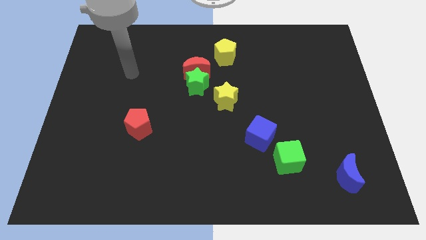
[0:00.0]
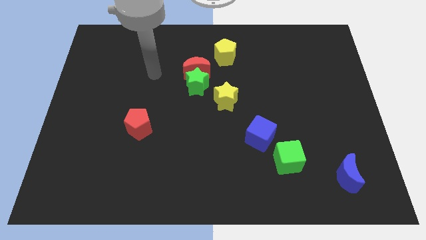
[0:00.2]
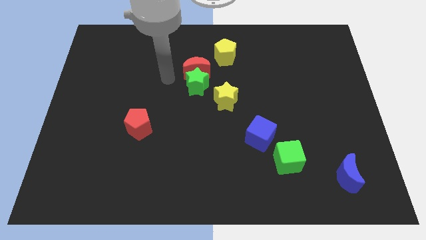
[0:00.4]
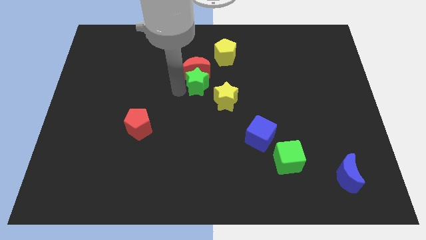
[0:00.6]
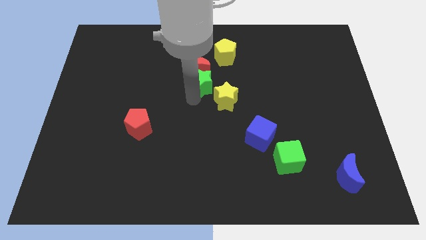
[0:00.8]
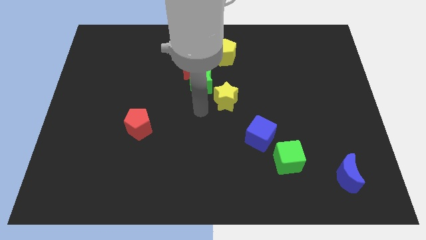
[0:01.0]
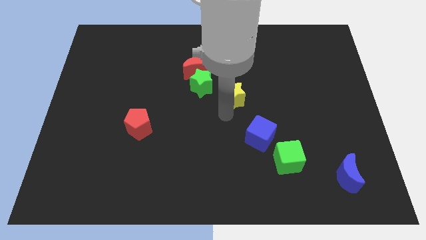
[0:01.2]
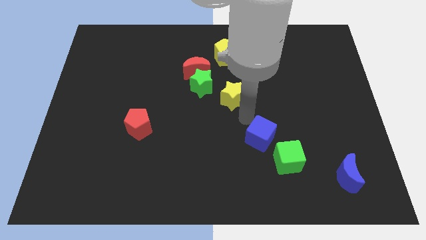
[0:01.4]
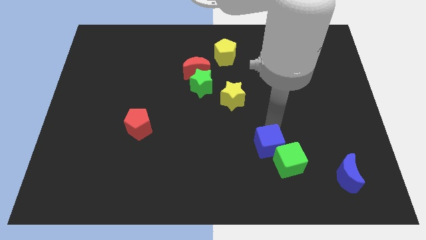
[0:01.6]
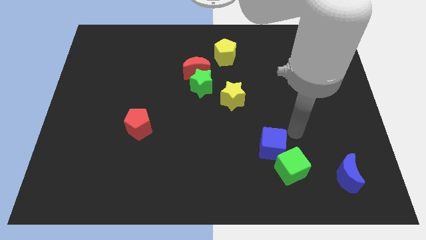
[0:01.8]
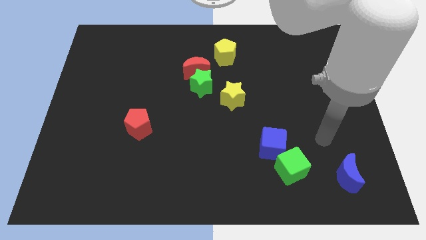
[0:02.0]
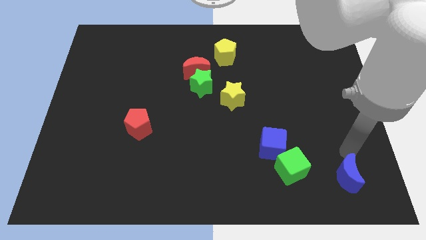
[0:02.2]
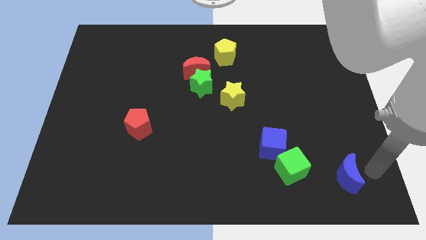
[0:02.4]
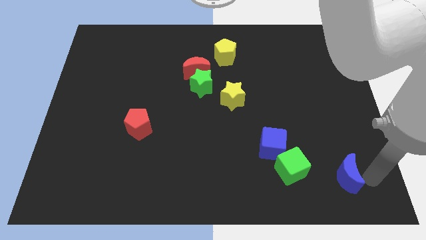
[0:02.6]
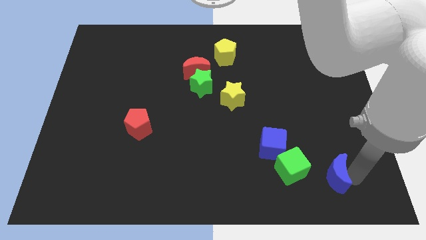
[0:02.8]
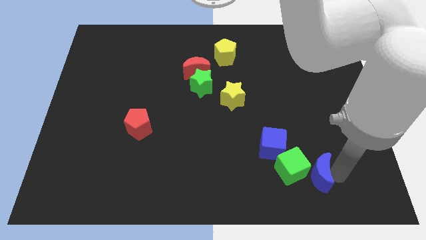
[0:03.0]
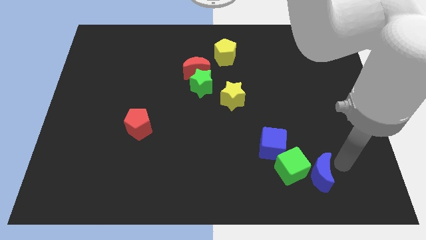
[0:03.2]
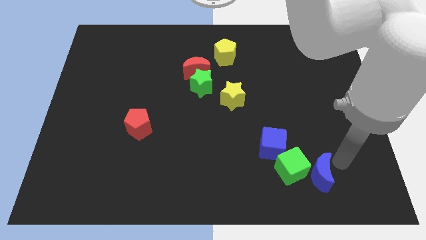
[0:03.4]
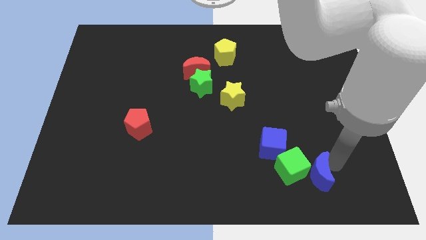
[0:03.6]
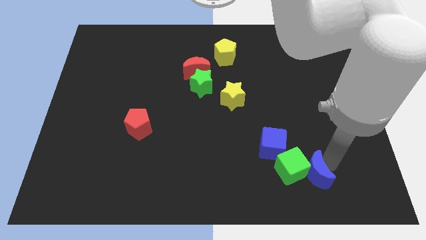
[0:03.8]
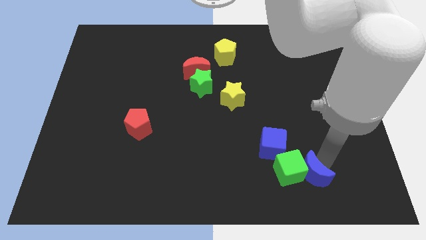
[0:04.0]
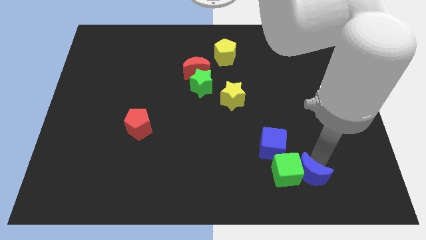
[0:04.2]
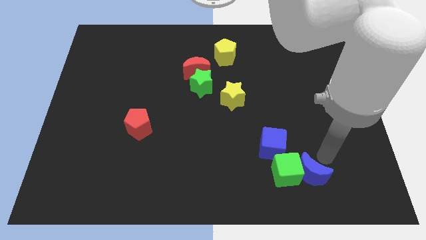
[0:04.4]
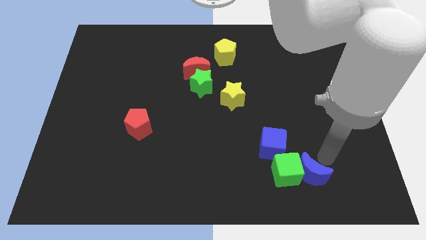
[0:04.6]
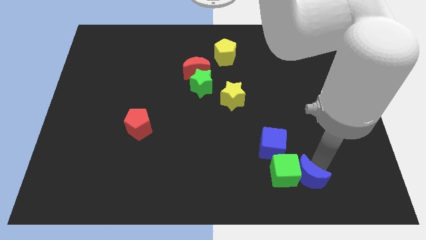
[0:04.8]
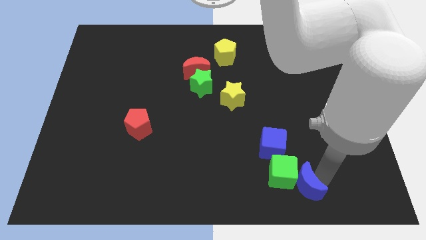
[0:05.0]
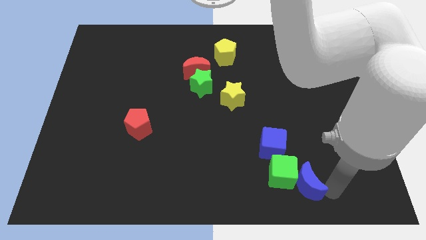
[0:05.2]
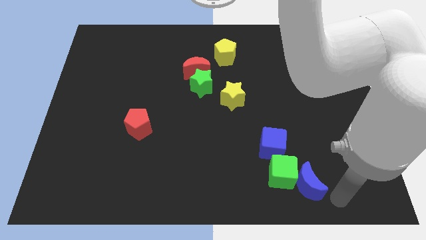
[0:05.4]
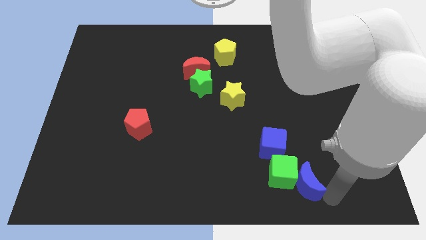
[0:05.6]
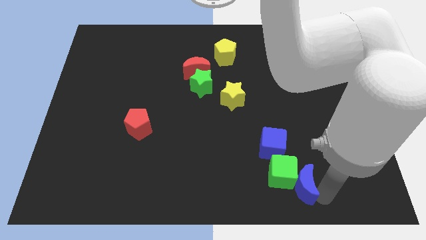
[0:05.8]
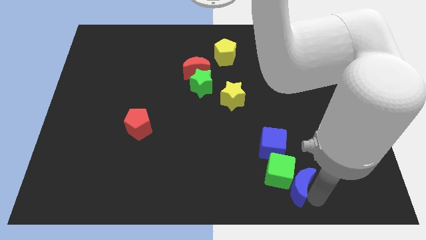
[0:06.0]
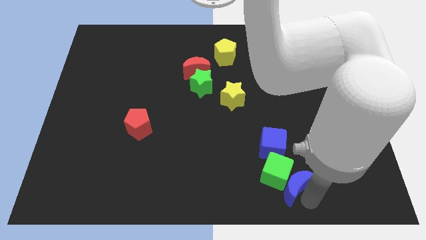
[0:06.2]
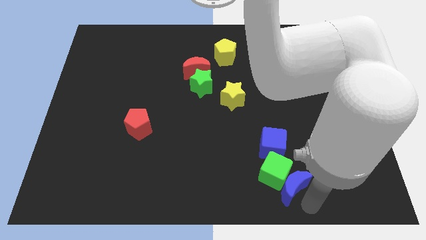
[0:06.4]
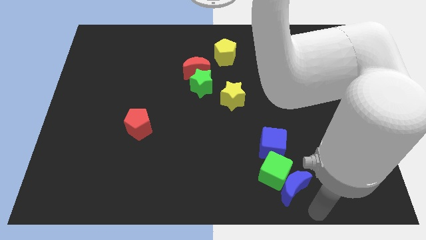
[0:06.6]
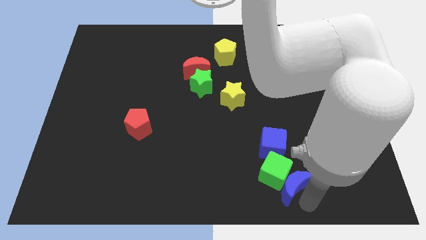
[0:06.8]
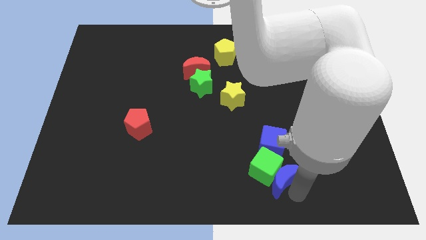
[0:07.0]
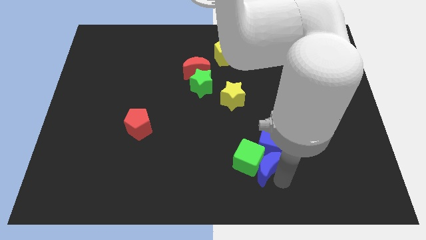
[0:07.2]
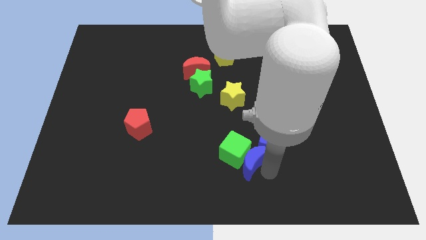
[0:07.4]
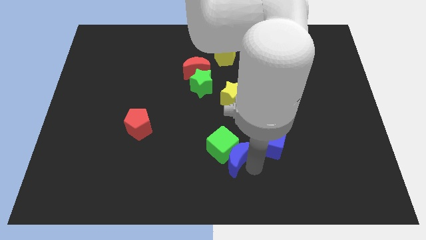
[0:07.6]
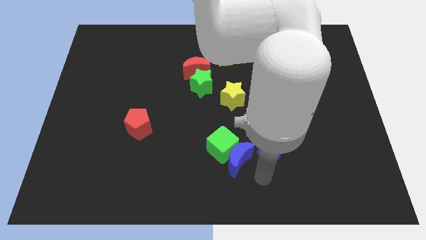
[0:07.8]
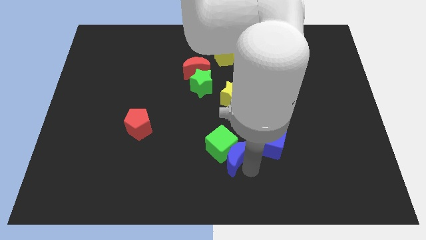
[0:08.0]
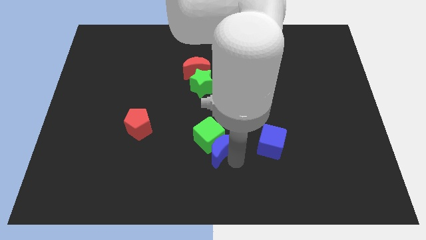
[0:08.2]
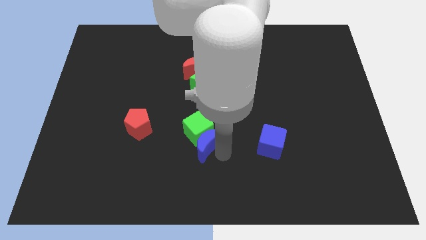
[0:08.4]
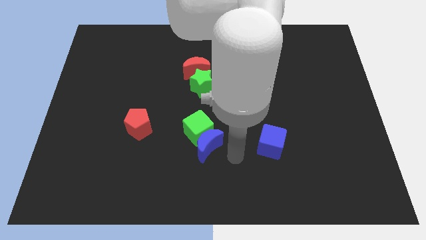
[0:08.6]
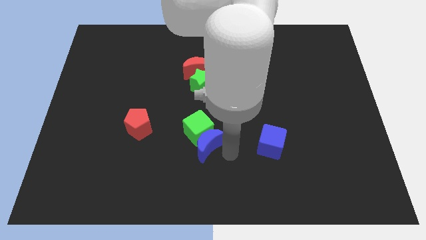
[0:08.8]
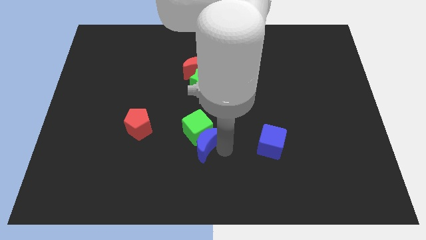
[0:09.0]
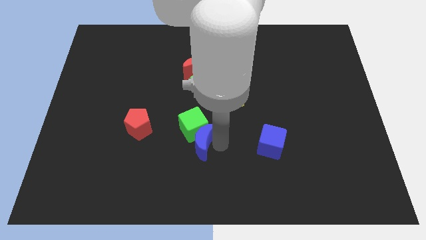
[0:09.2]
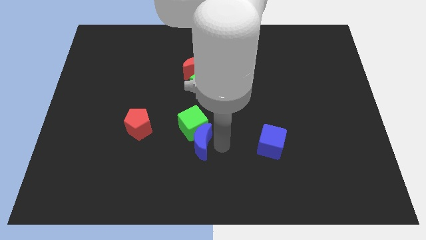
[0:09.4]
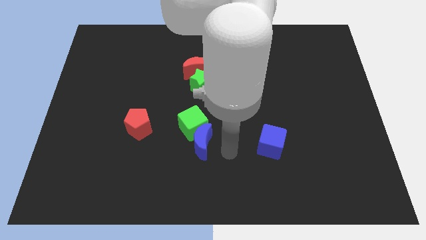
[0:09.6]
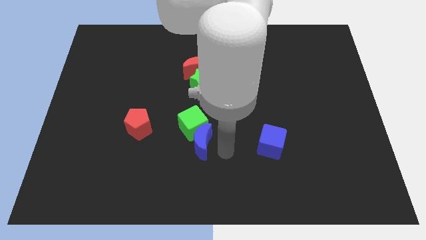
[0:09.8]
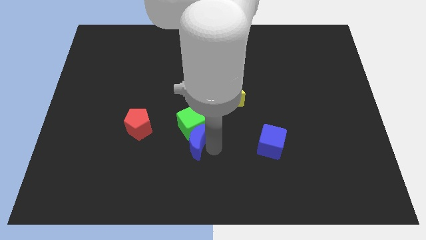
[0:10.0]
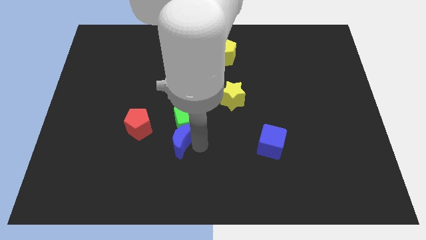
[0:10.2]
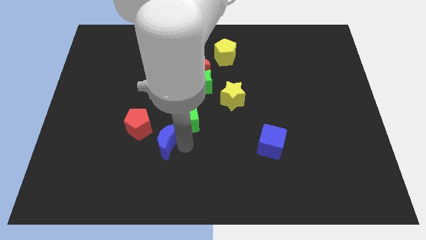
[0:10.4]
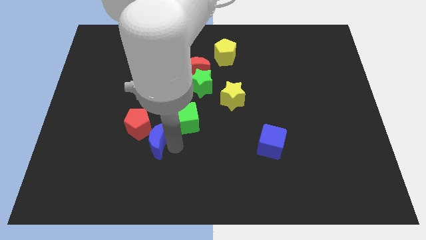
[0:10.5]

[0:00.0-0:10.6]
move the blue moon next to the red pentagon

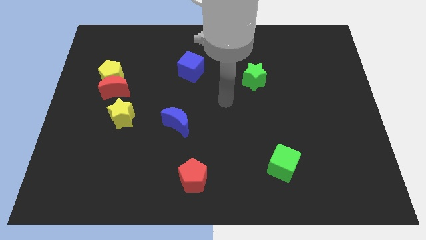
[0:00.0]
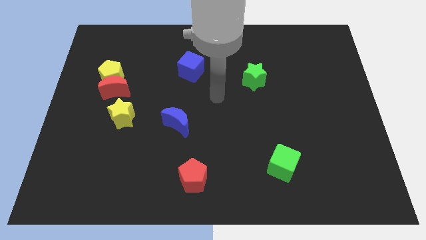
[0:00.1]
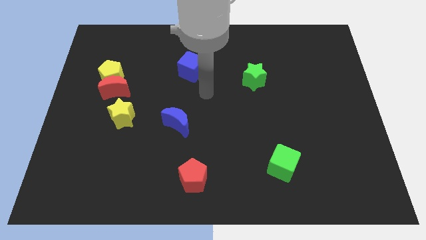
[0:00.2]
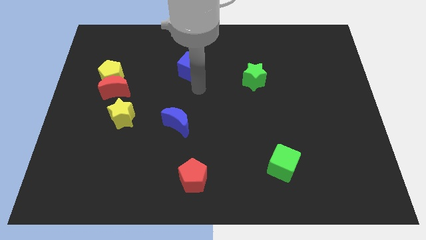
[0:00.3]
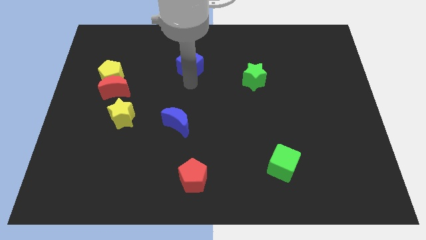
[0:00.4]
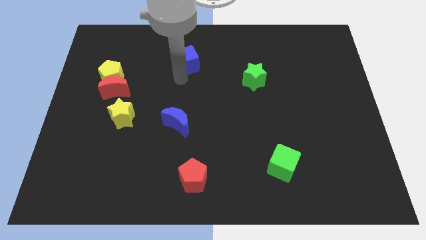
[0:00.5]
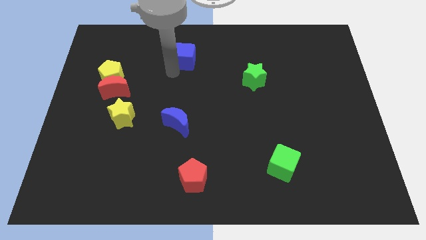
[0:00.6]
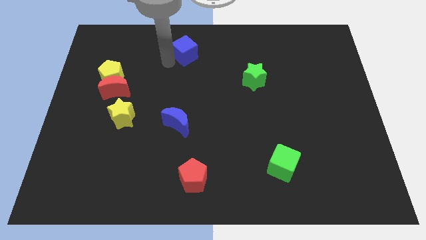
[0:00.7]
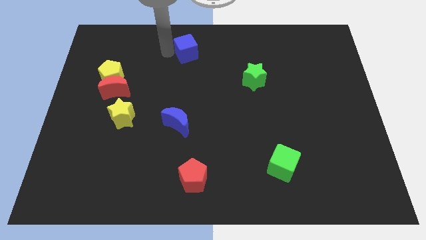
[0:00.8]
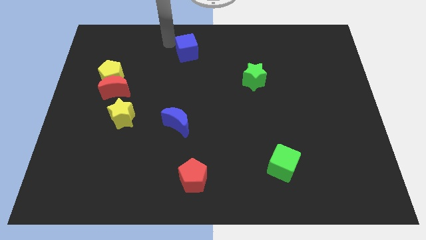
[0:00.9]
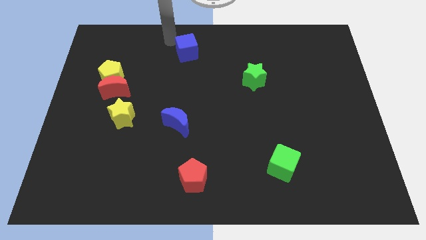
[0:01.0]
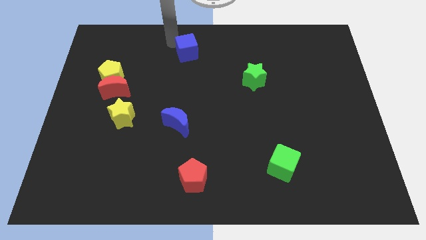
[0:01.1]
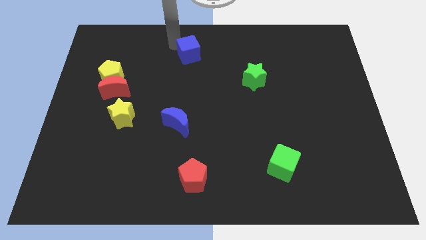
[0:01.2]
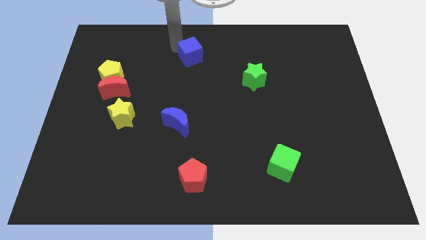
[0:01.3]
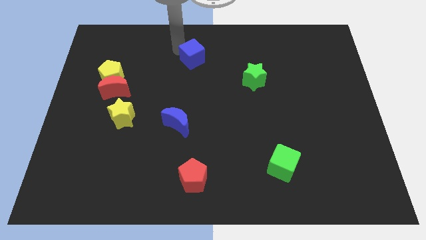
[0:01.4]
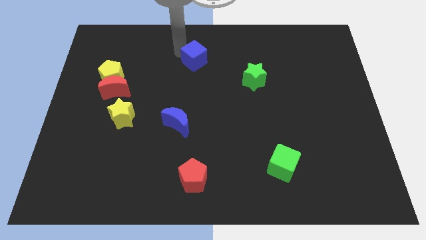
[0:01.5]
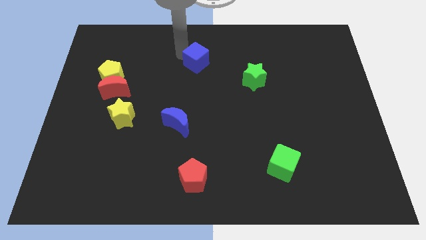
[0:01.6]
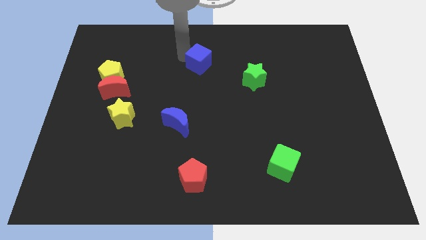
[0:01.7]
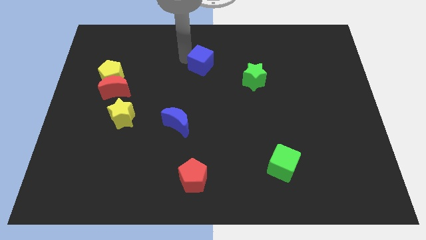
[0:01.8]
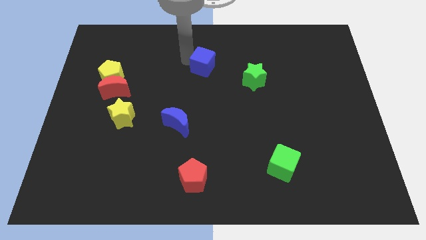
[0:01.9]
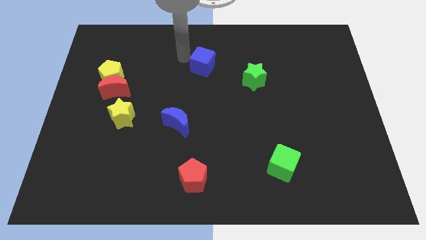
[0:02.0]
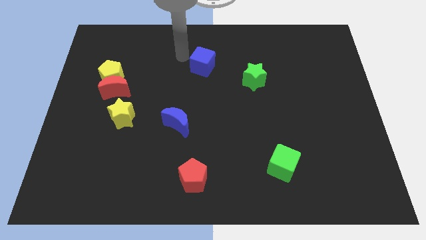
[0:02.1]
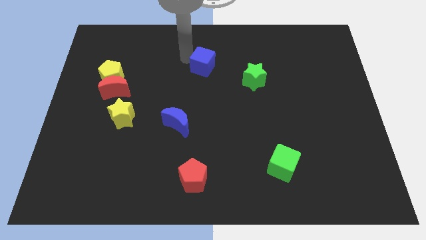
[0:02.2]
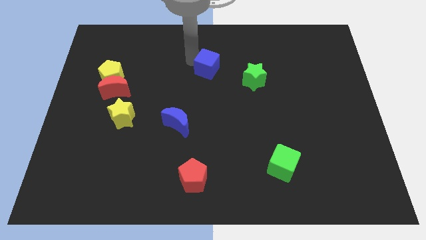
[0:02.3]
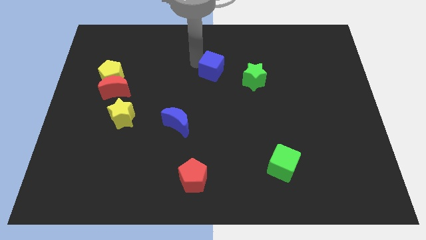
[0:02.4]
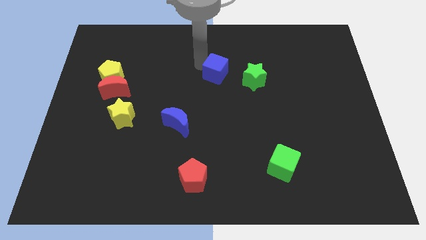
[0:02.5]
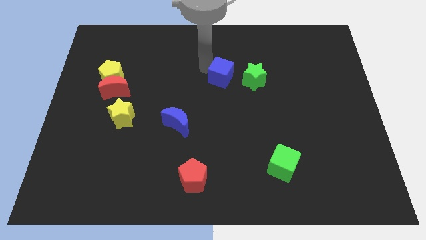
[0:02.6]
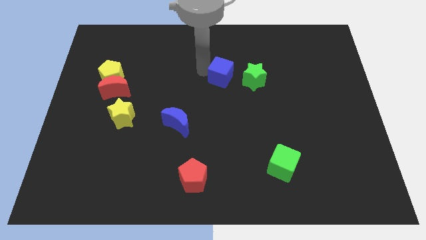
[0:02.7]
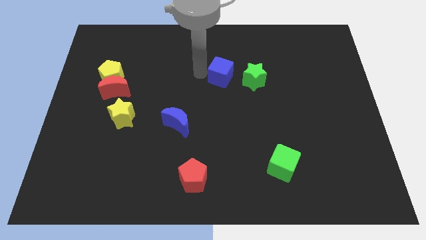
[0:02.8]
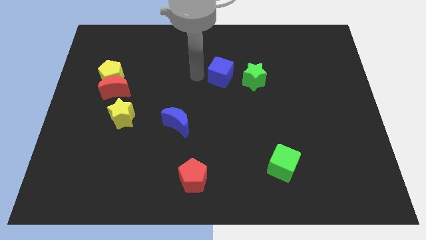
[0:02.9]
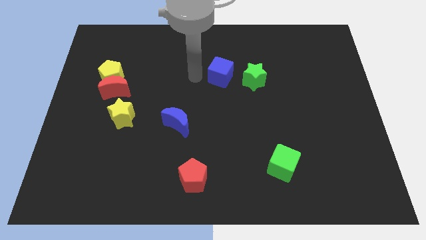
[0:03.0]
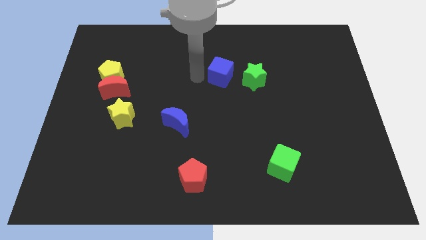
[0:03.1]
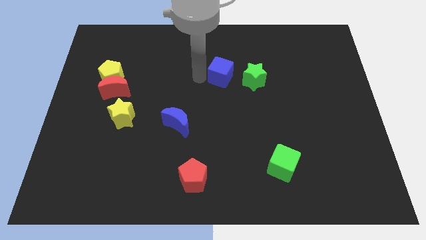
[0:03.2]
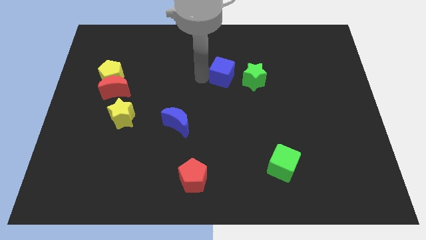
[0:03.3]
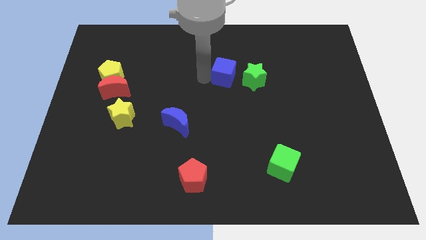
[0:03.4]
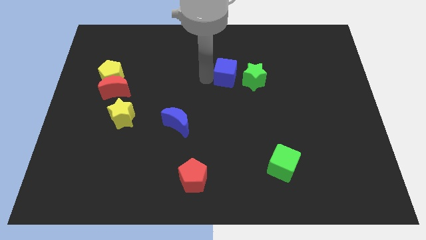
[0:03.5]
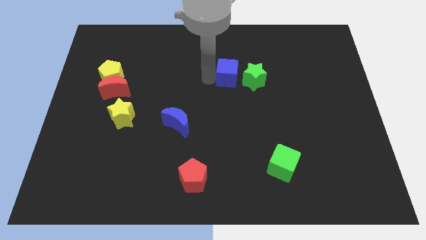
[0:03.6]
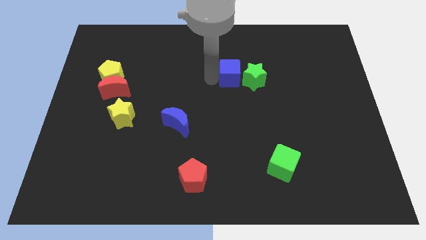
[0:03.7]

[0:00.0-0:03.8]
put the blue cube close to the green star
